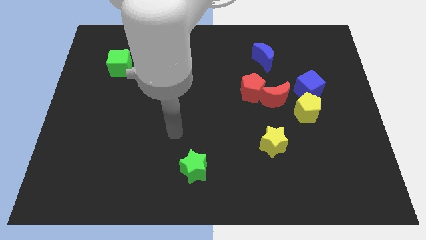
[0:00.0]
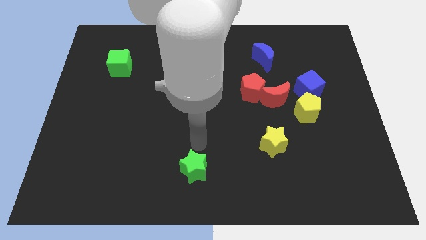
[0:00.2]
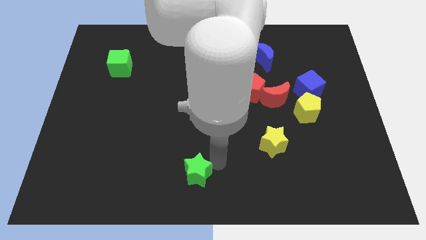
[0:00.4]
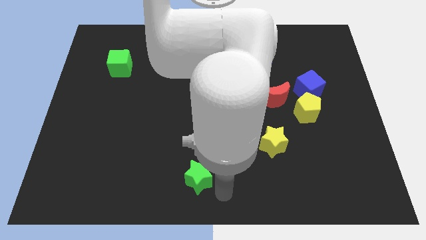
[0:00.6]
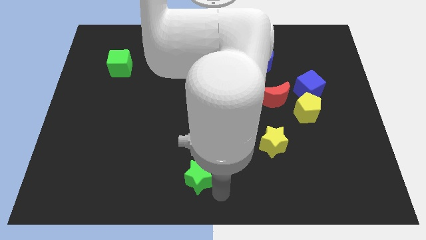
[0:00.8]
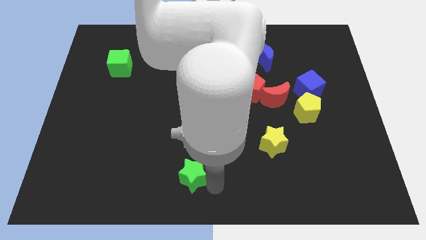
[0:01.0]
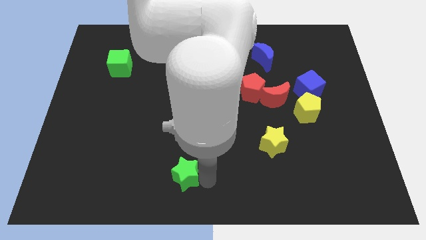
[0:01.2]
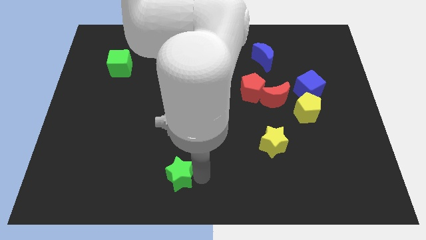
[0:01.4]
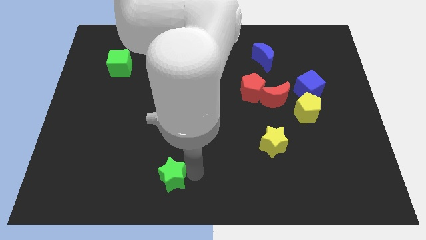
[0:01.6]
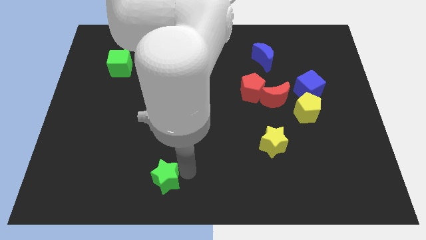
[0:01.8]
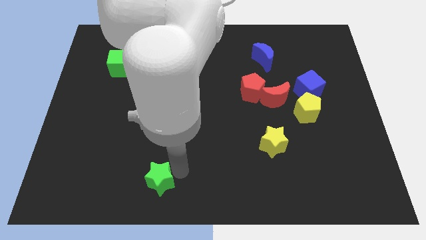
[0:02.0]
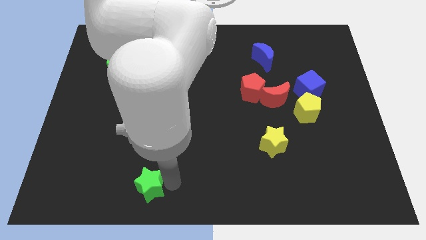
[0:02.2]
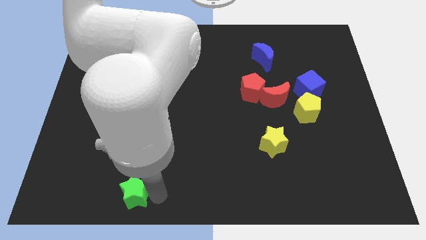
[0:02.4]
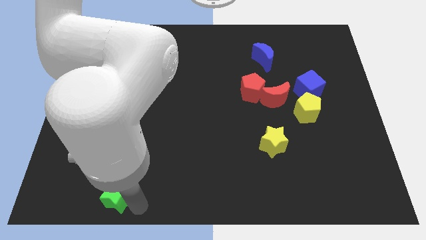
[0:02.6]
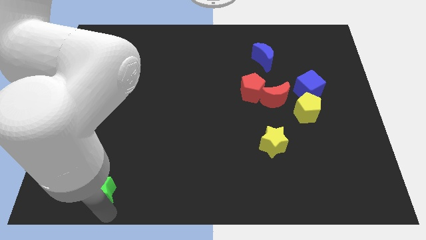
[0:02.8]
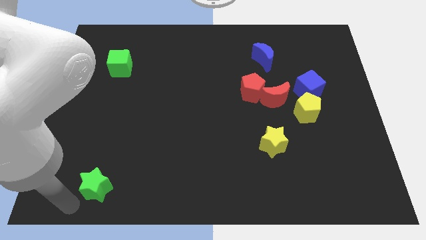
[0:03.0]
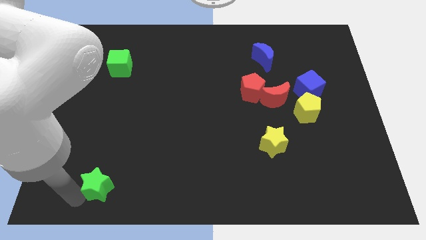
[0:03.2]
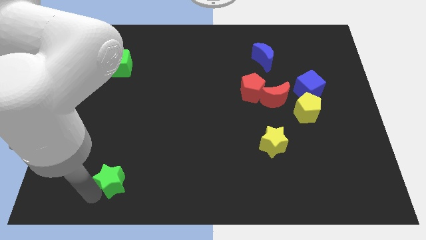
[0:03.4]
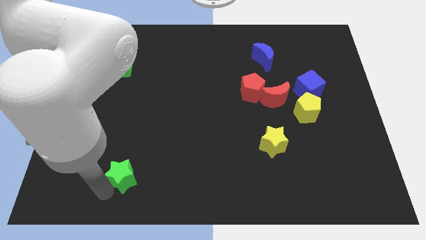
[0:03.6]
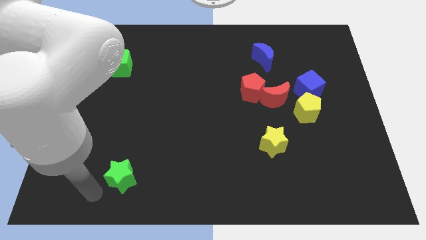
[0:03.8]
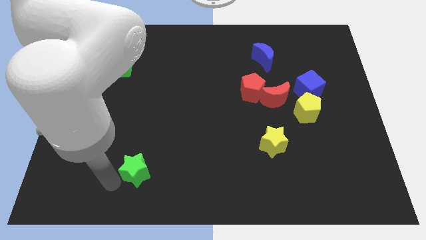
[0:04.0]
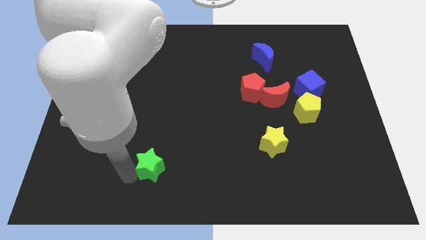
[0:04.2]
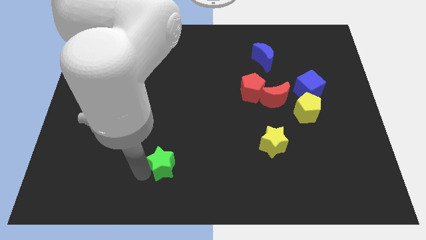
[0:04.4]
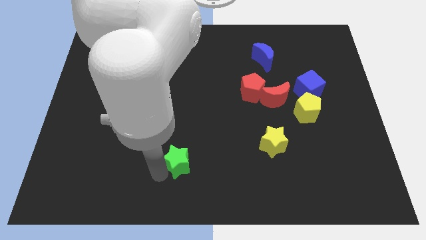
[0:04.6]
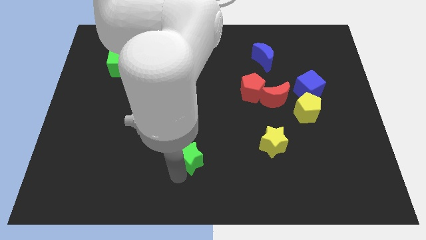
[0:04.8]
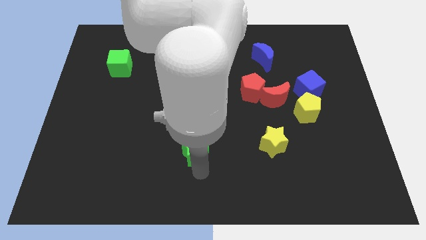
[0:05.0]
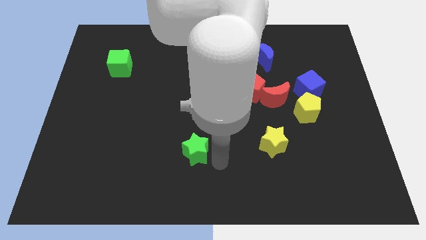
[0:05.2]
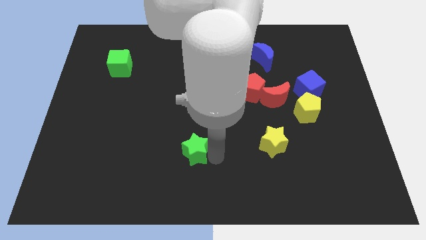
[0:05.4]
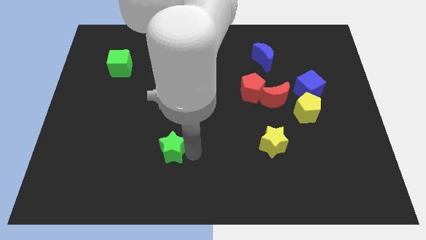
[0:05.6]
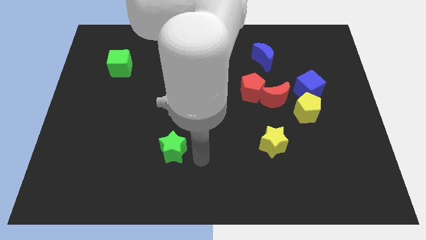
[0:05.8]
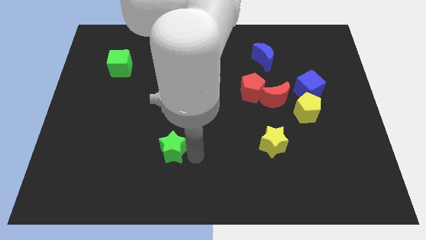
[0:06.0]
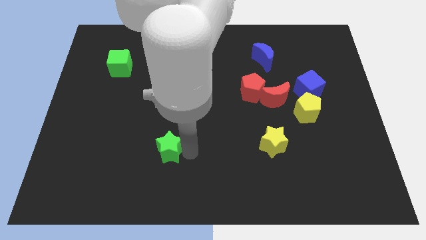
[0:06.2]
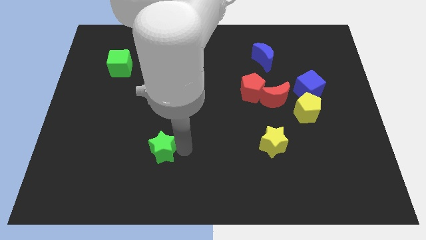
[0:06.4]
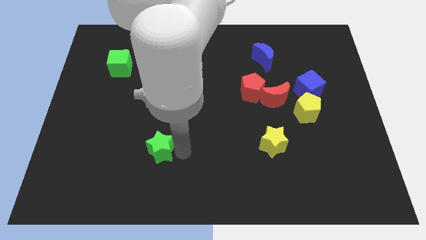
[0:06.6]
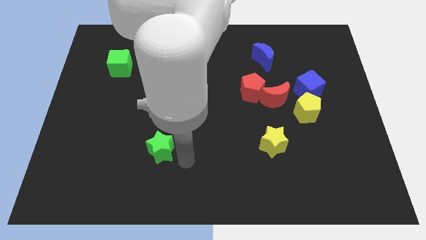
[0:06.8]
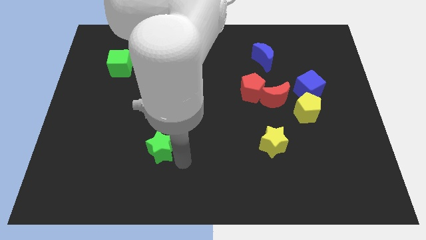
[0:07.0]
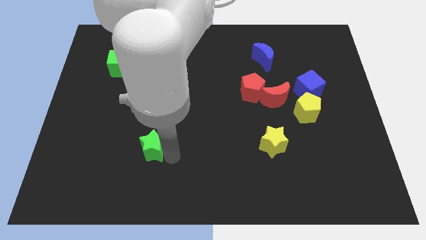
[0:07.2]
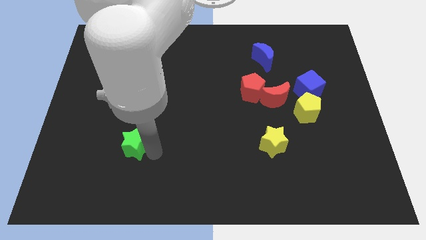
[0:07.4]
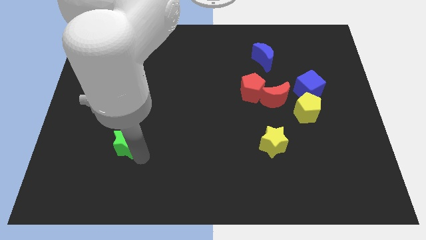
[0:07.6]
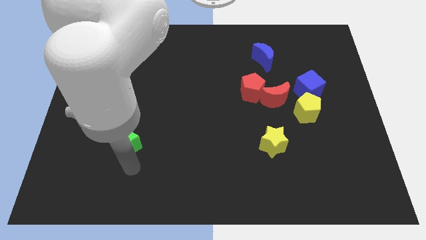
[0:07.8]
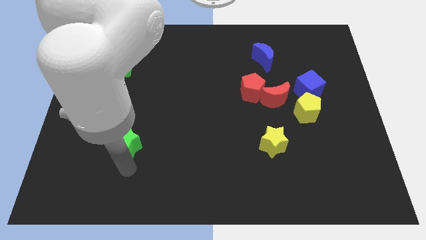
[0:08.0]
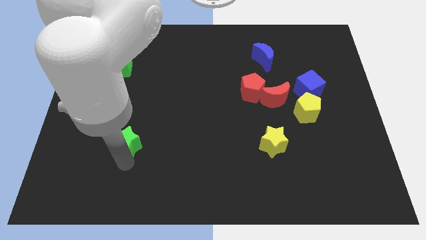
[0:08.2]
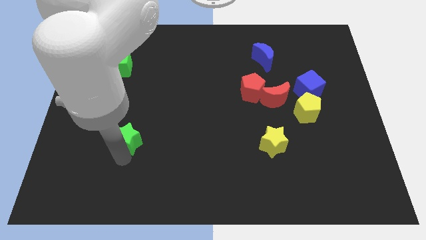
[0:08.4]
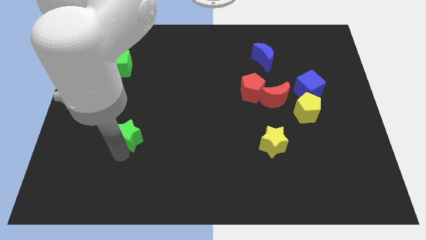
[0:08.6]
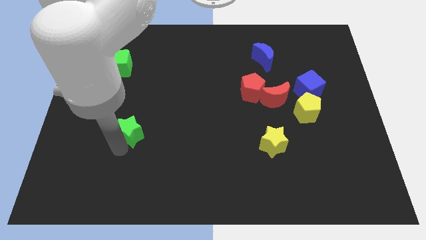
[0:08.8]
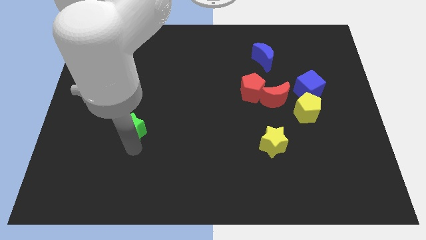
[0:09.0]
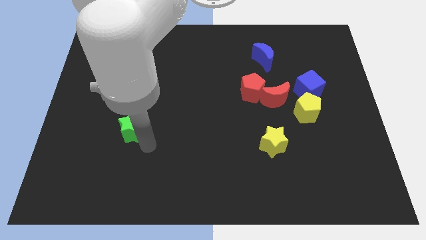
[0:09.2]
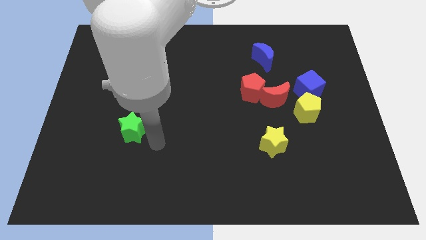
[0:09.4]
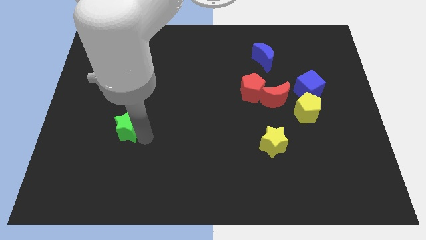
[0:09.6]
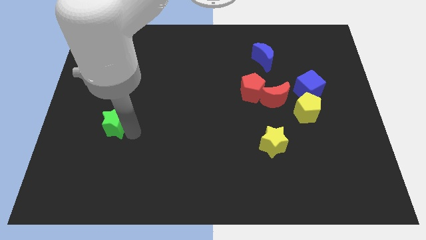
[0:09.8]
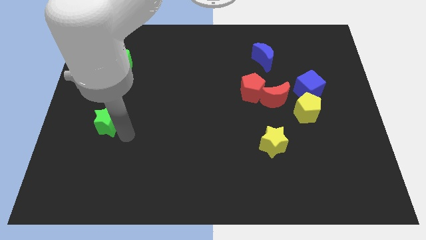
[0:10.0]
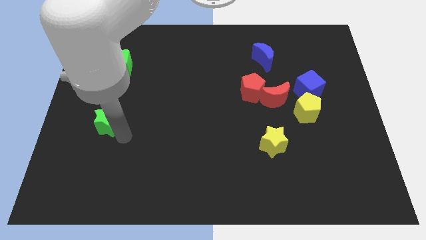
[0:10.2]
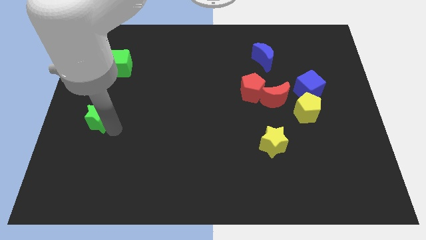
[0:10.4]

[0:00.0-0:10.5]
slide the green star to the center left

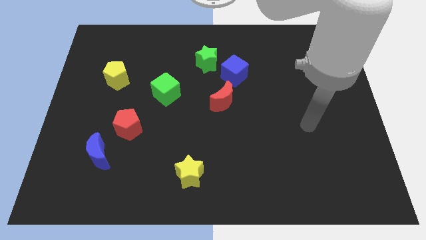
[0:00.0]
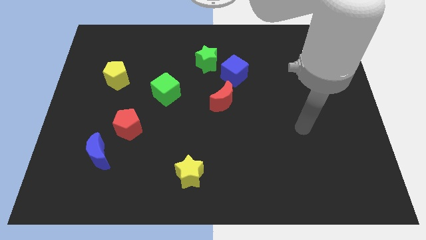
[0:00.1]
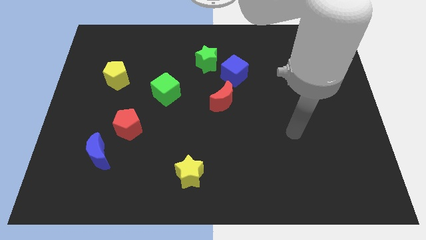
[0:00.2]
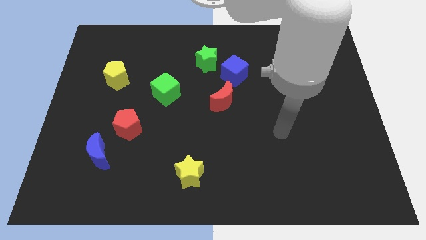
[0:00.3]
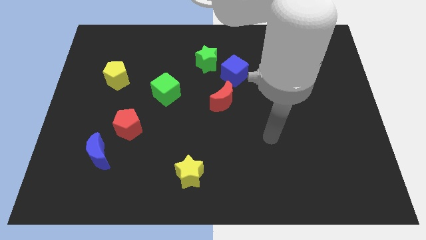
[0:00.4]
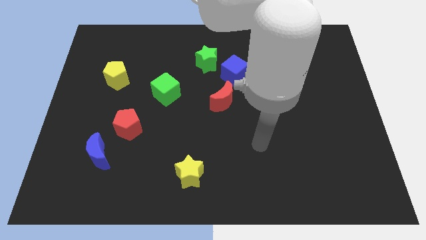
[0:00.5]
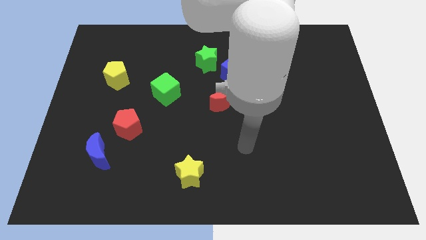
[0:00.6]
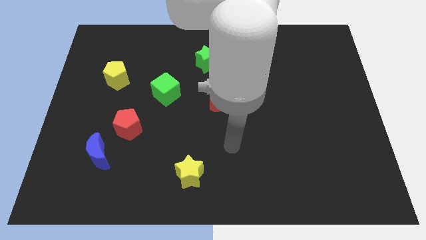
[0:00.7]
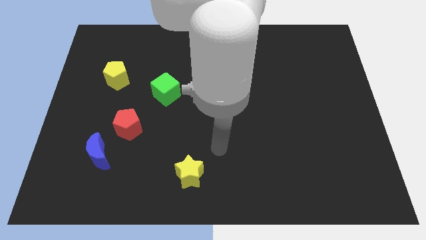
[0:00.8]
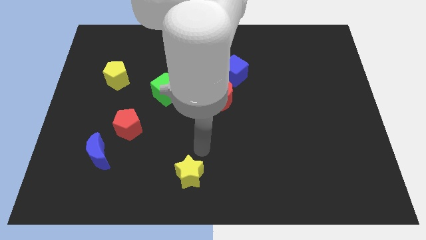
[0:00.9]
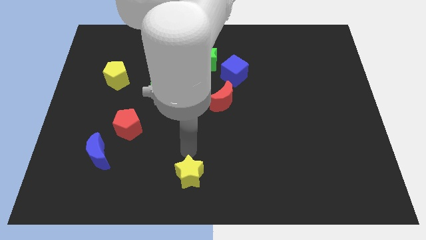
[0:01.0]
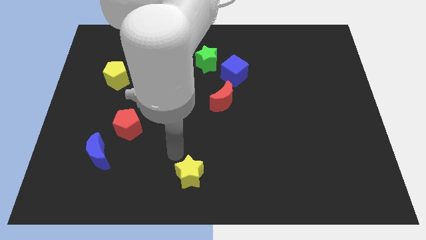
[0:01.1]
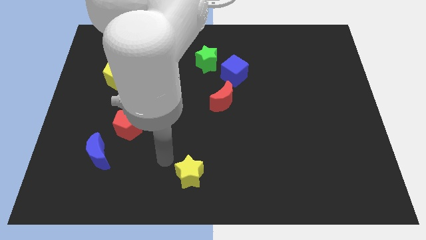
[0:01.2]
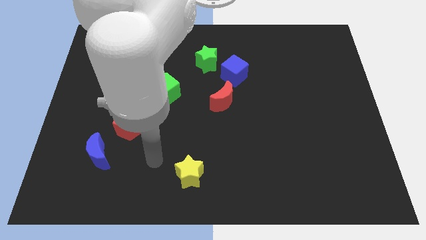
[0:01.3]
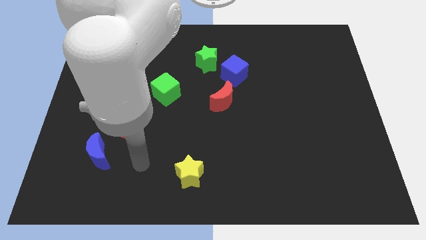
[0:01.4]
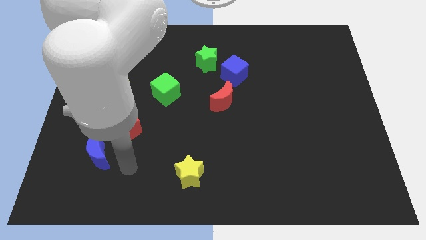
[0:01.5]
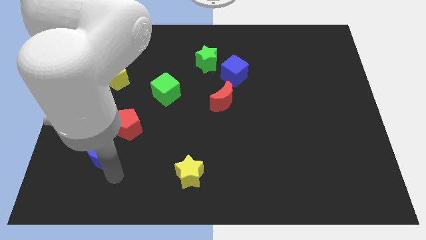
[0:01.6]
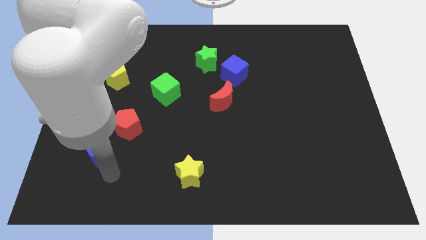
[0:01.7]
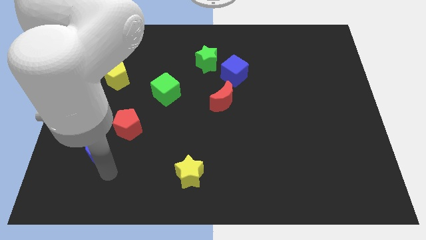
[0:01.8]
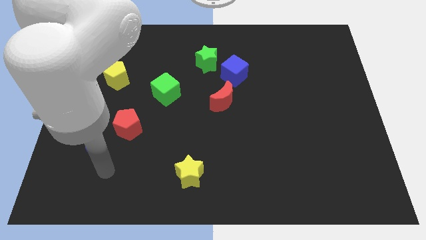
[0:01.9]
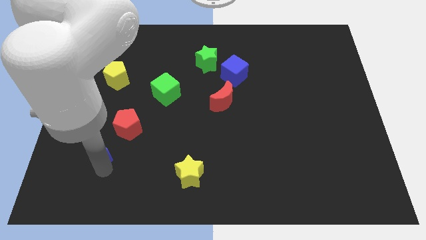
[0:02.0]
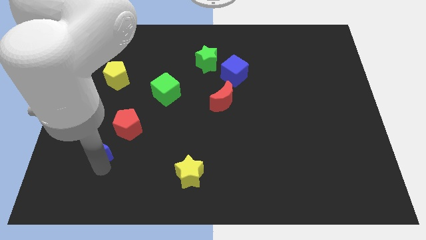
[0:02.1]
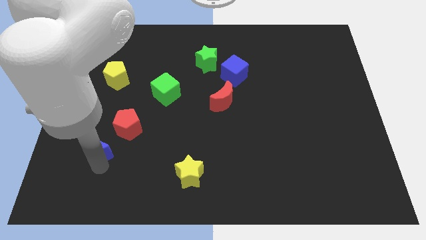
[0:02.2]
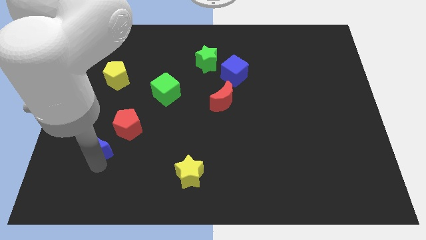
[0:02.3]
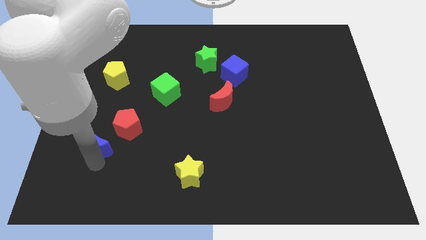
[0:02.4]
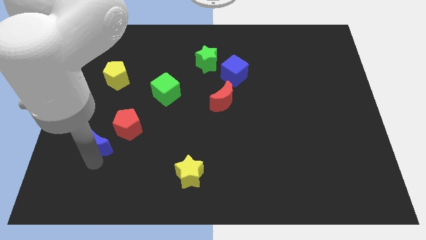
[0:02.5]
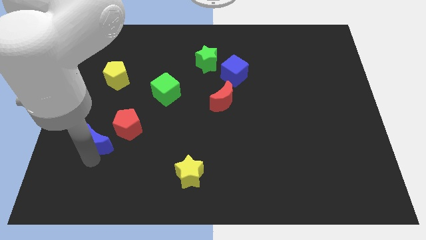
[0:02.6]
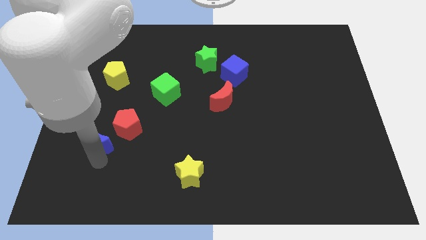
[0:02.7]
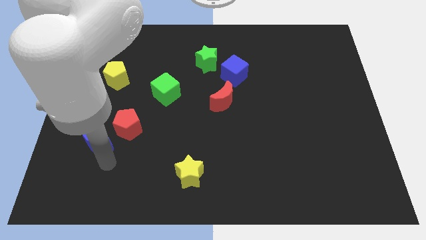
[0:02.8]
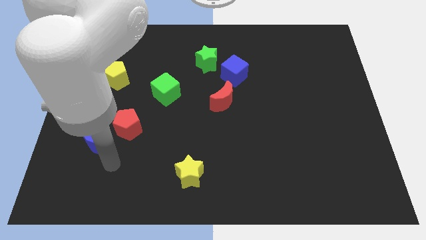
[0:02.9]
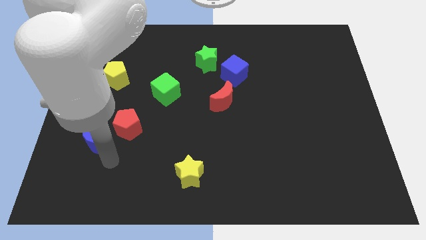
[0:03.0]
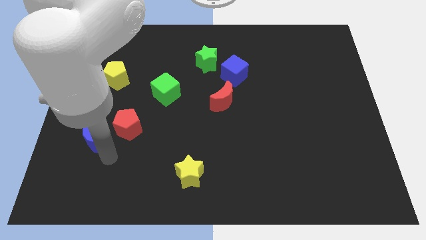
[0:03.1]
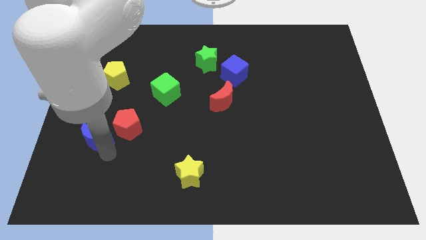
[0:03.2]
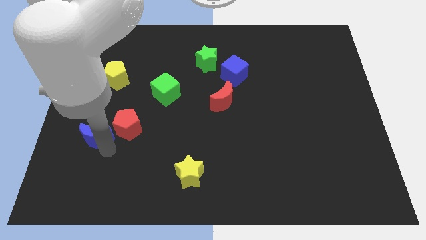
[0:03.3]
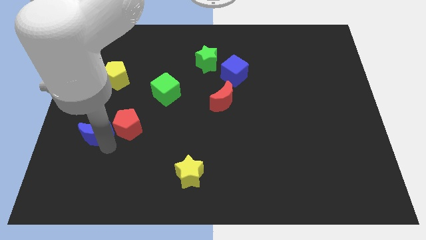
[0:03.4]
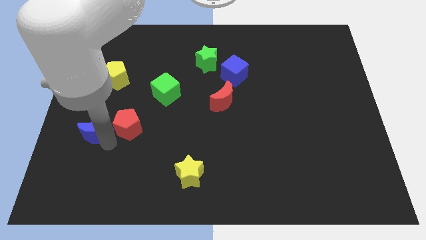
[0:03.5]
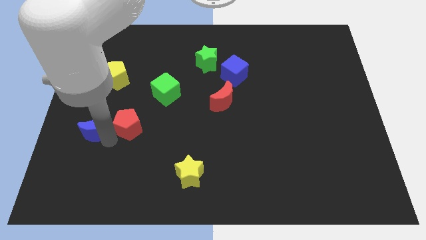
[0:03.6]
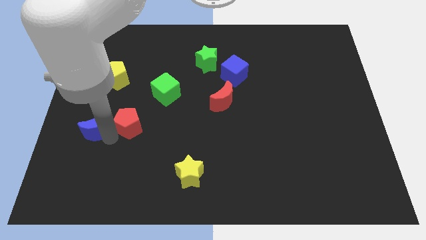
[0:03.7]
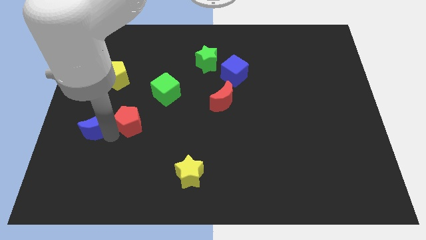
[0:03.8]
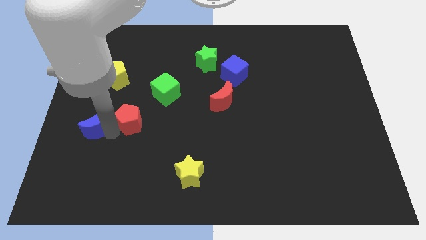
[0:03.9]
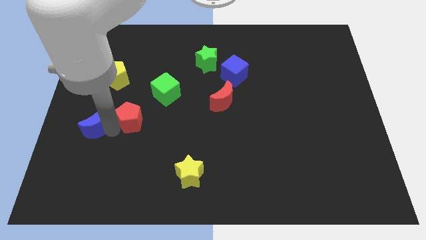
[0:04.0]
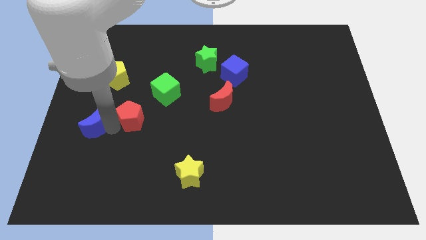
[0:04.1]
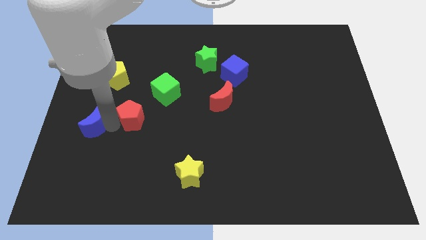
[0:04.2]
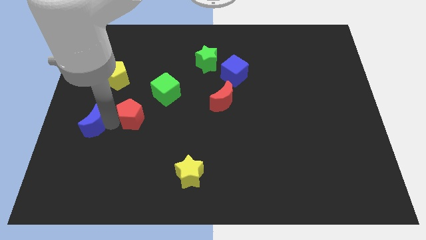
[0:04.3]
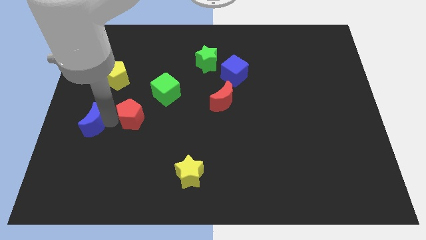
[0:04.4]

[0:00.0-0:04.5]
move the blue moon to the center left
